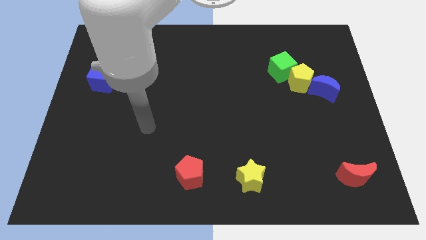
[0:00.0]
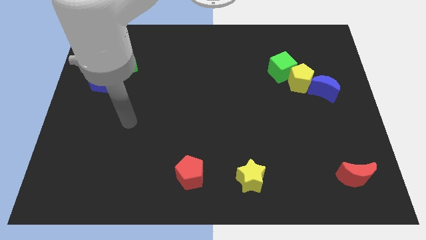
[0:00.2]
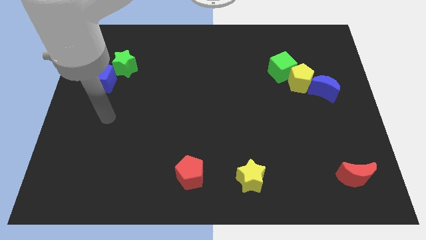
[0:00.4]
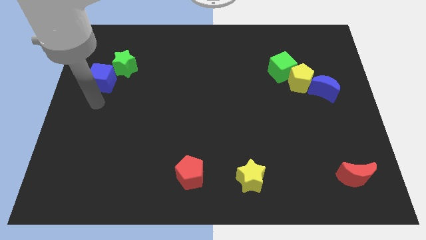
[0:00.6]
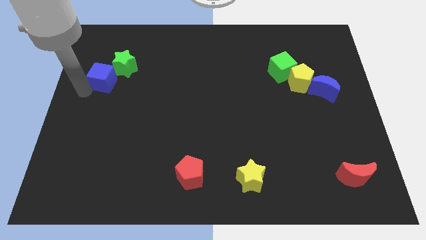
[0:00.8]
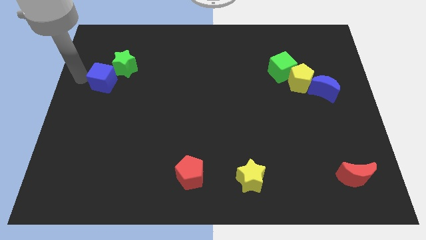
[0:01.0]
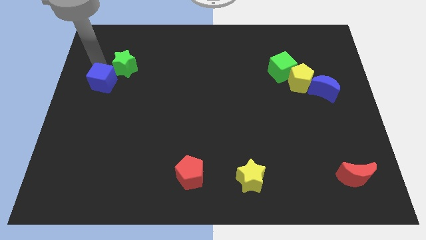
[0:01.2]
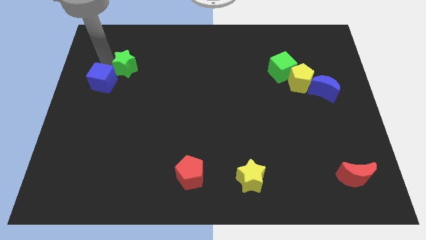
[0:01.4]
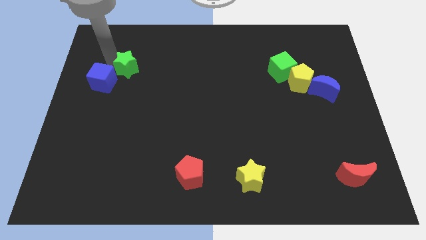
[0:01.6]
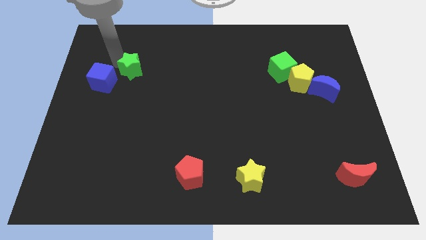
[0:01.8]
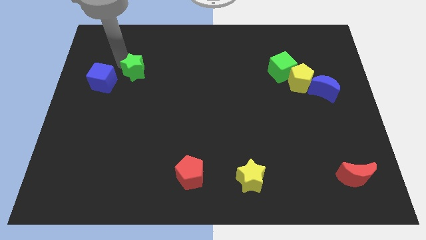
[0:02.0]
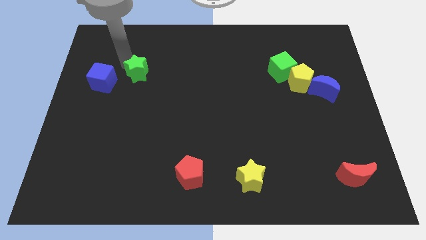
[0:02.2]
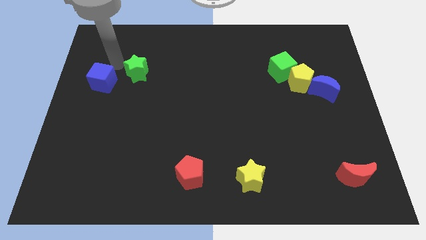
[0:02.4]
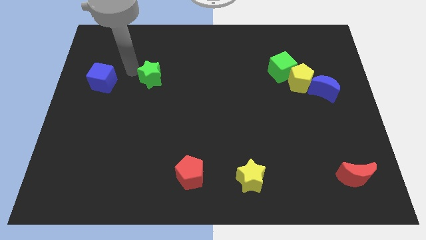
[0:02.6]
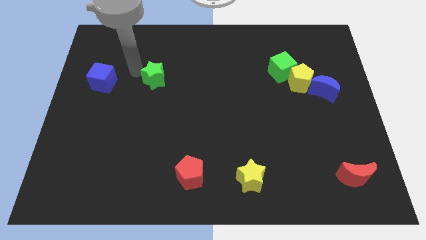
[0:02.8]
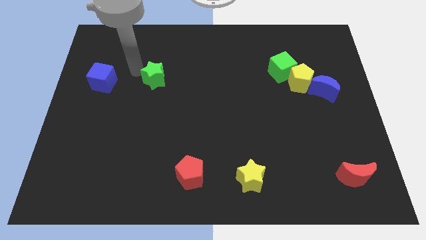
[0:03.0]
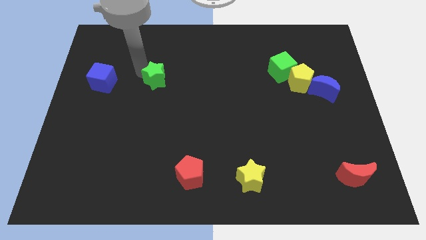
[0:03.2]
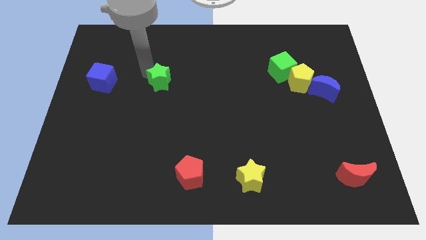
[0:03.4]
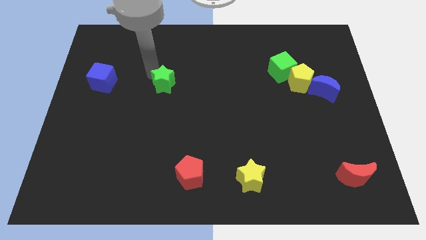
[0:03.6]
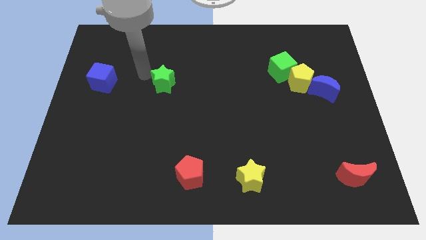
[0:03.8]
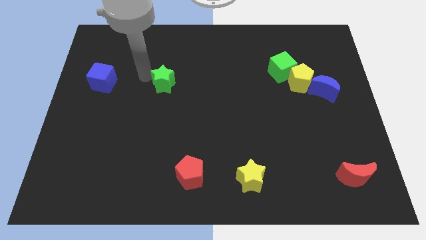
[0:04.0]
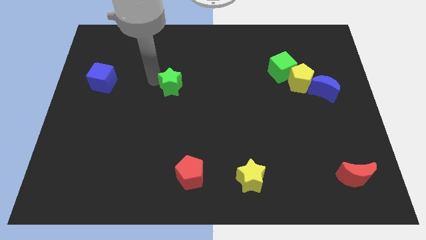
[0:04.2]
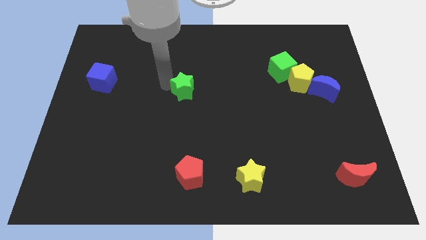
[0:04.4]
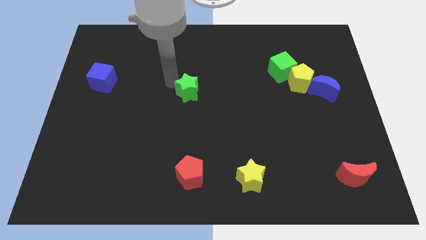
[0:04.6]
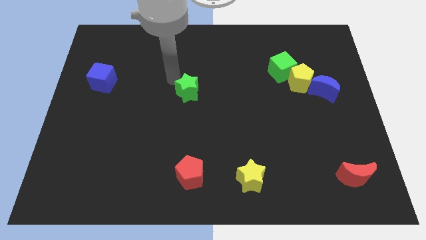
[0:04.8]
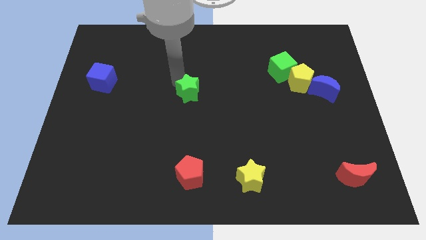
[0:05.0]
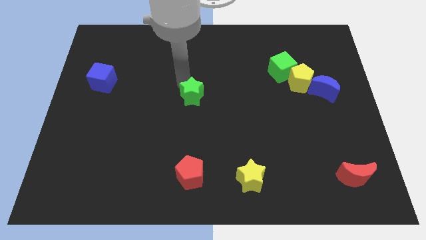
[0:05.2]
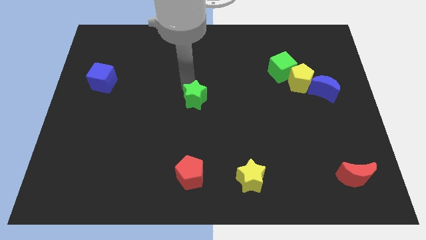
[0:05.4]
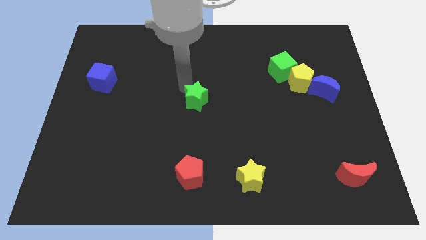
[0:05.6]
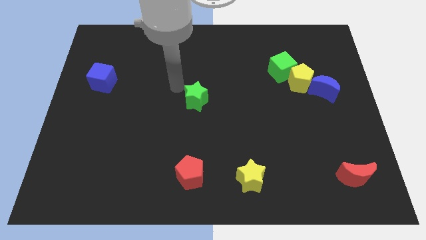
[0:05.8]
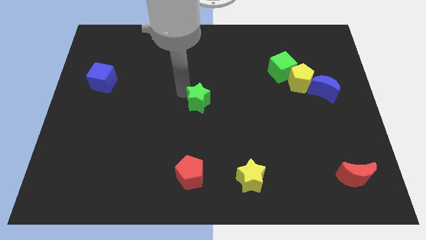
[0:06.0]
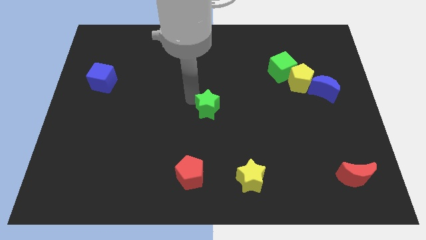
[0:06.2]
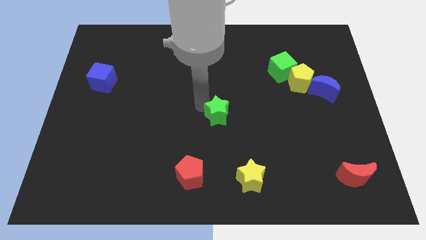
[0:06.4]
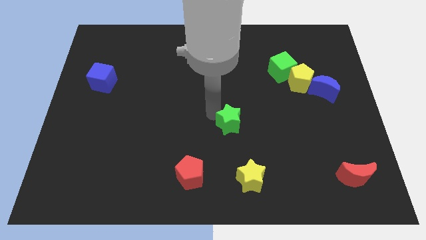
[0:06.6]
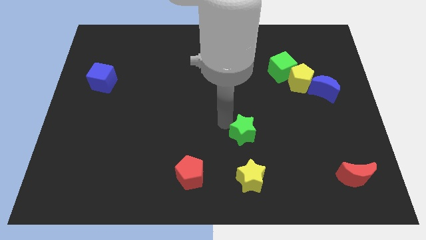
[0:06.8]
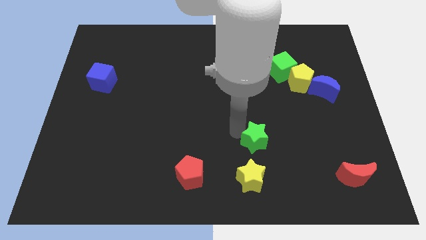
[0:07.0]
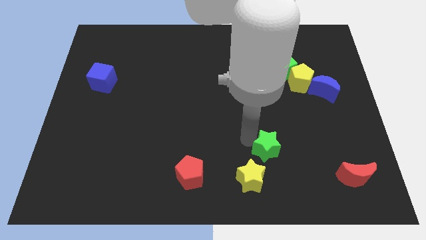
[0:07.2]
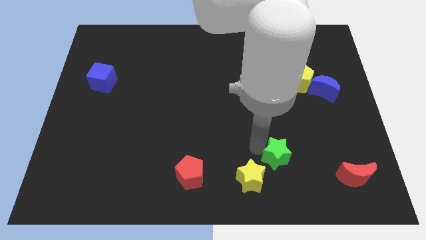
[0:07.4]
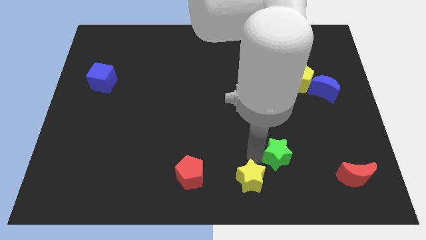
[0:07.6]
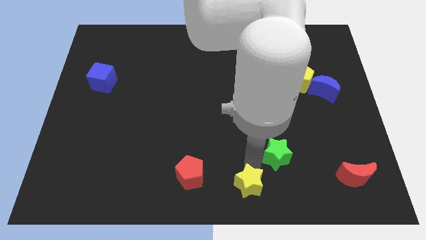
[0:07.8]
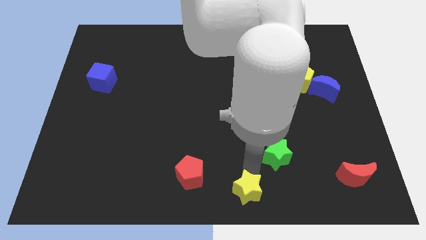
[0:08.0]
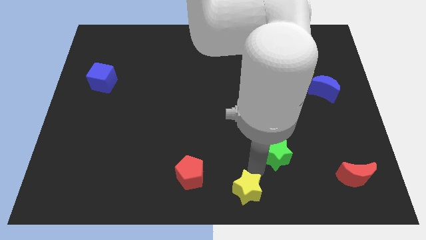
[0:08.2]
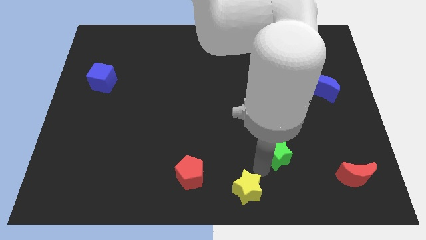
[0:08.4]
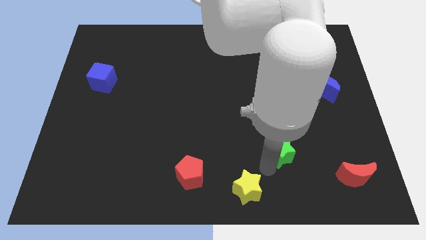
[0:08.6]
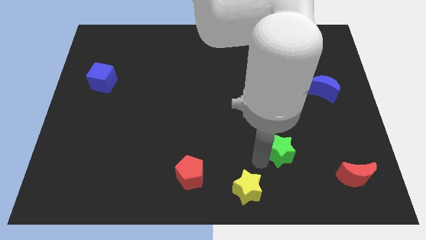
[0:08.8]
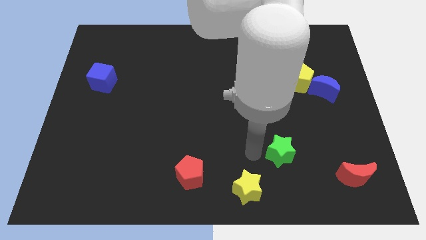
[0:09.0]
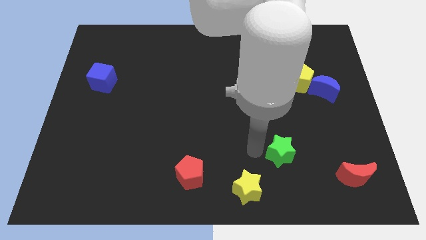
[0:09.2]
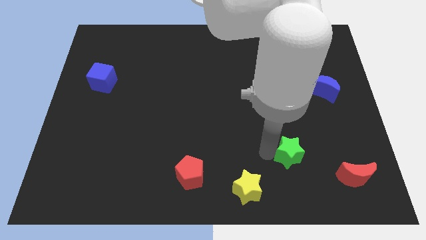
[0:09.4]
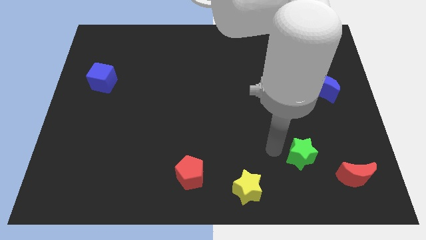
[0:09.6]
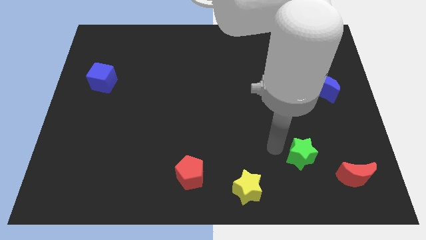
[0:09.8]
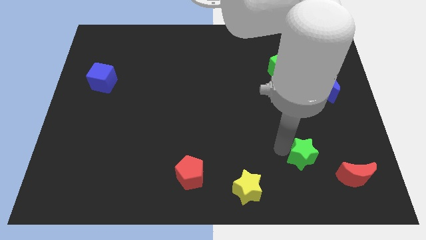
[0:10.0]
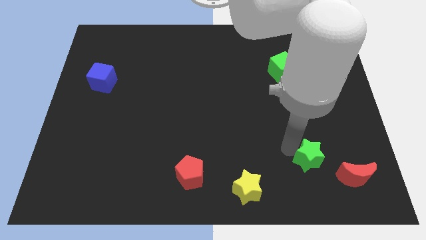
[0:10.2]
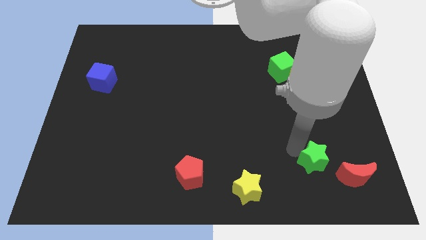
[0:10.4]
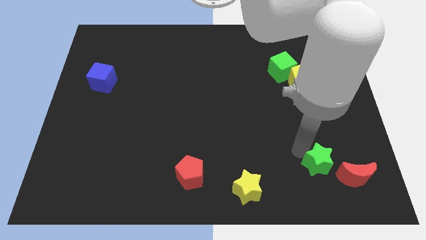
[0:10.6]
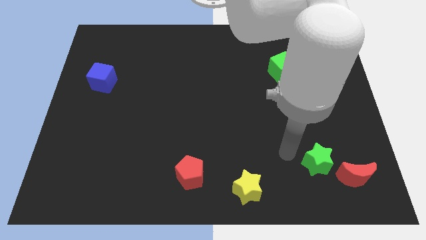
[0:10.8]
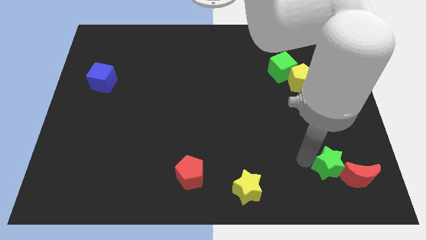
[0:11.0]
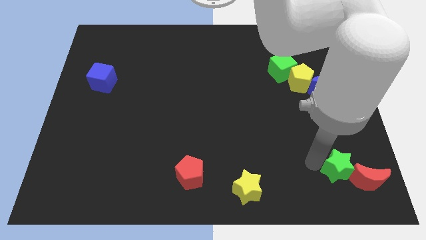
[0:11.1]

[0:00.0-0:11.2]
slide the green star close to the red moon

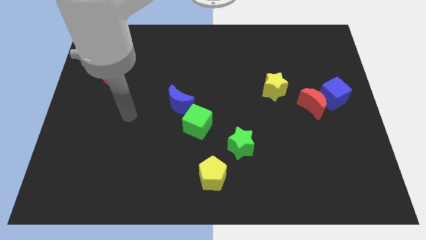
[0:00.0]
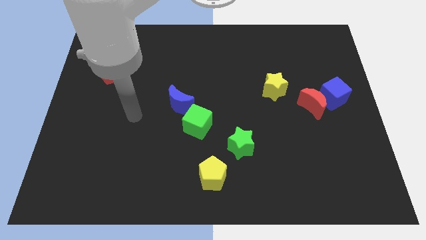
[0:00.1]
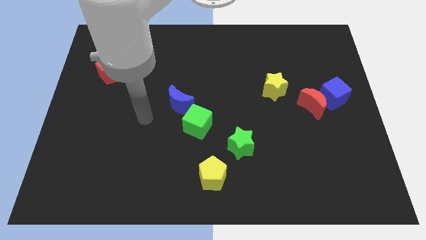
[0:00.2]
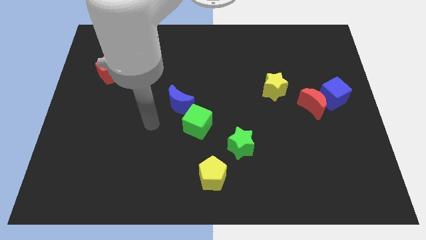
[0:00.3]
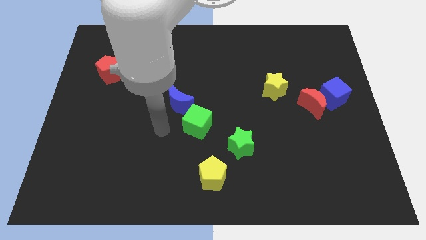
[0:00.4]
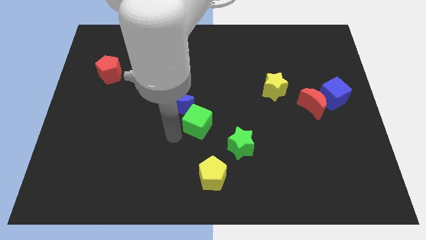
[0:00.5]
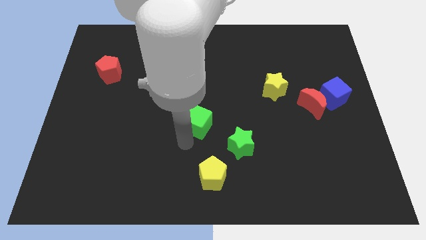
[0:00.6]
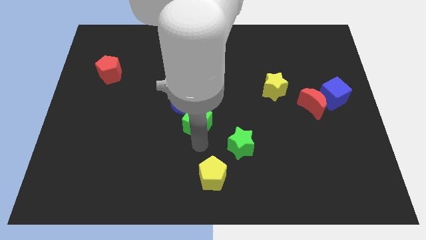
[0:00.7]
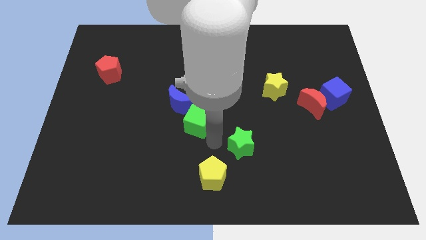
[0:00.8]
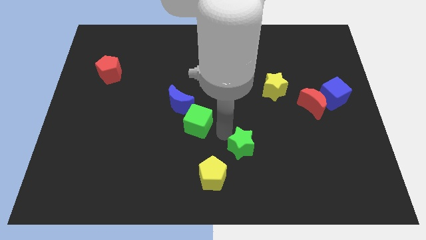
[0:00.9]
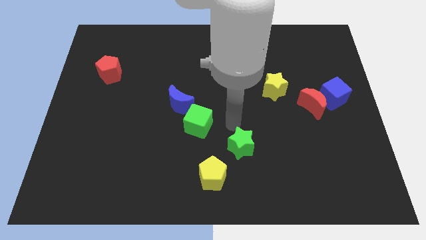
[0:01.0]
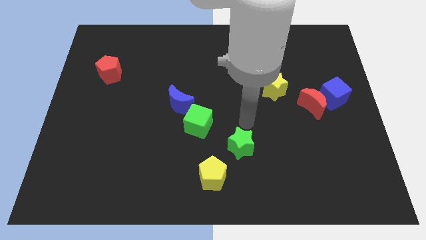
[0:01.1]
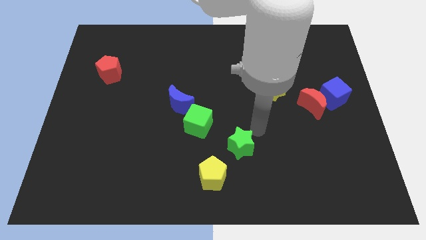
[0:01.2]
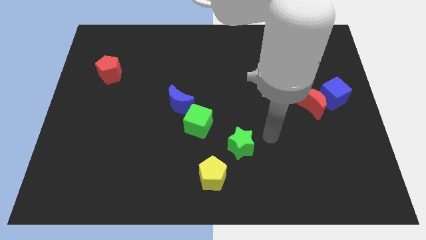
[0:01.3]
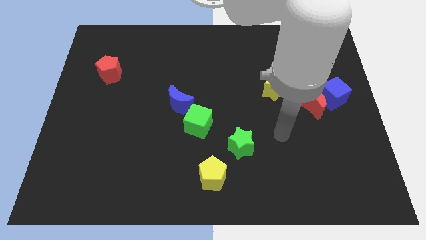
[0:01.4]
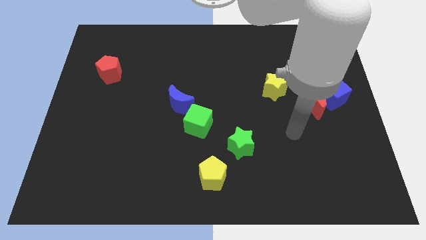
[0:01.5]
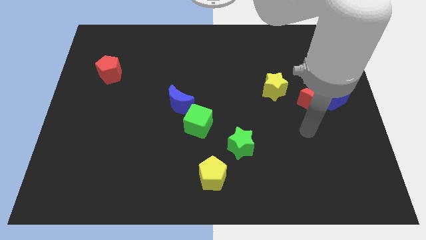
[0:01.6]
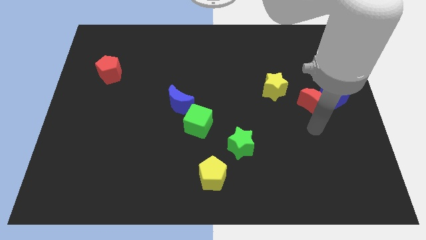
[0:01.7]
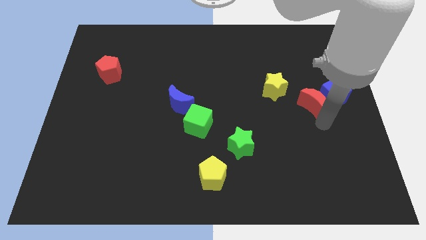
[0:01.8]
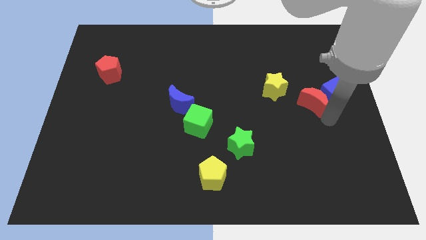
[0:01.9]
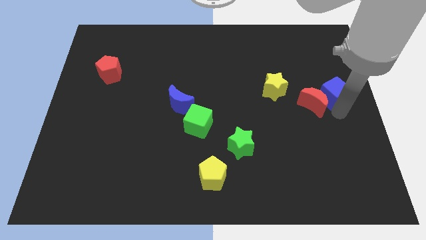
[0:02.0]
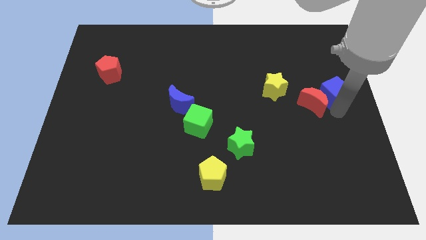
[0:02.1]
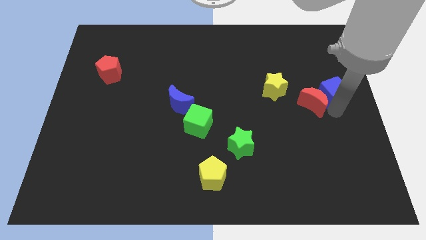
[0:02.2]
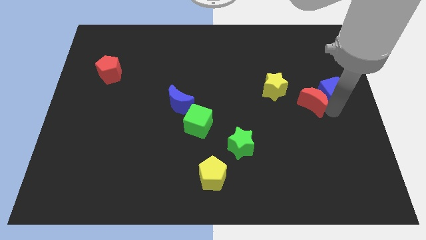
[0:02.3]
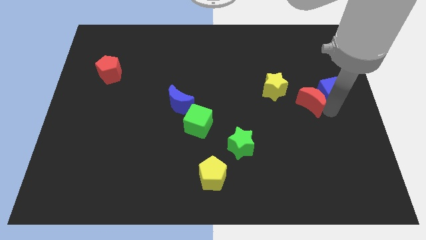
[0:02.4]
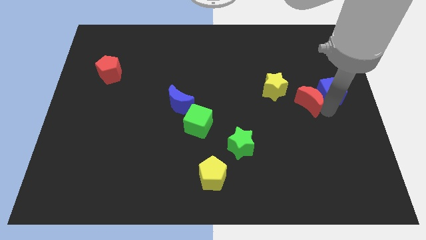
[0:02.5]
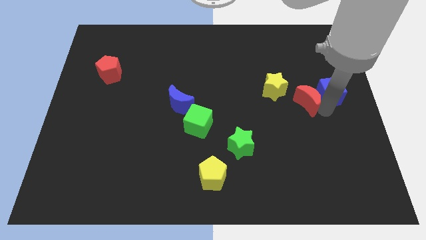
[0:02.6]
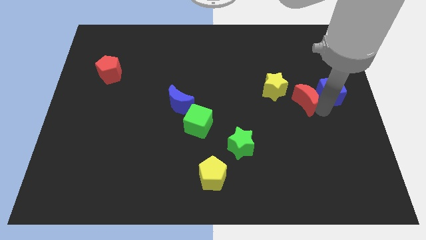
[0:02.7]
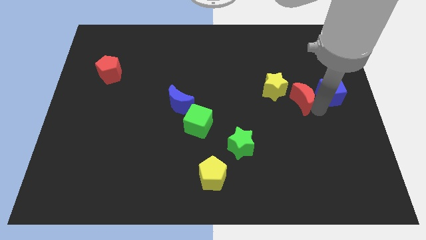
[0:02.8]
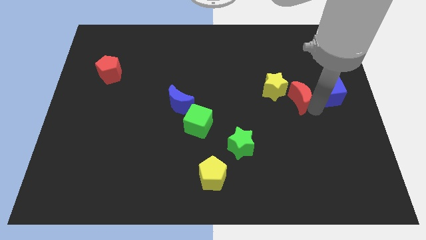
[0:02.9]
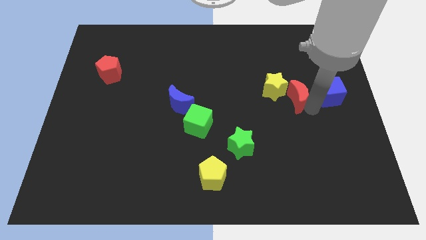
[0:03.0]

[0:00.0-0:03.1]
move the red moon to the yellow star
